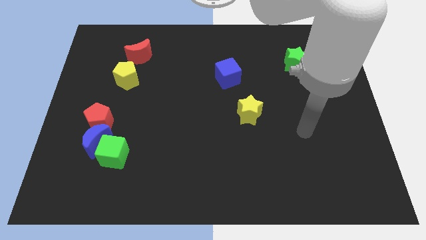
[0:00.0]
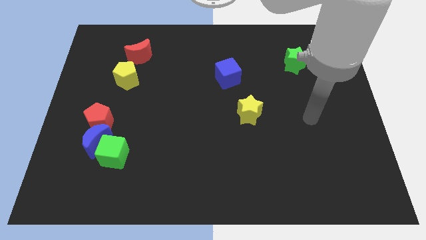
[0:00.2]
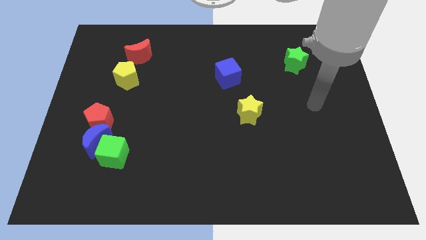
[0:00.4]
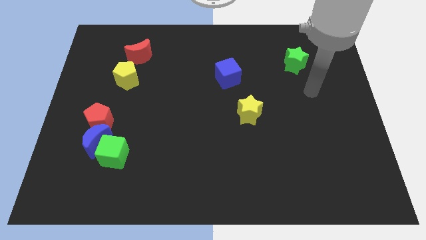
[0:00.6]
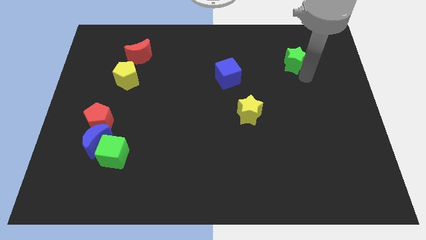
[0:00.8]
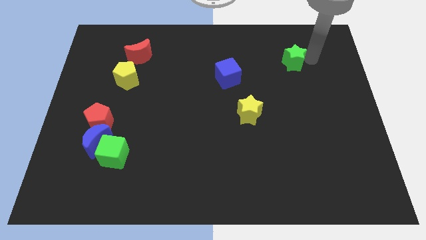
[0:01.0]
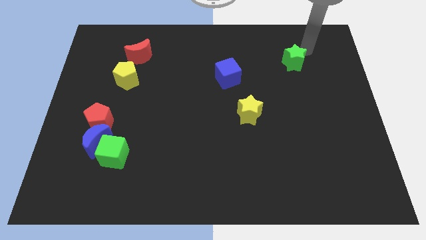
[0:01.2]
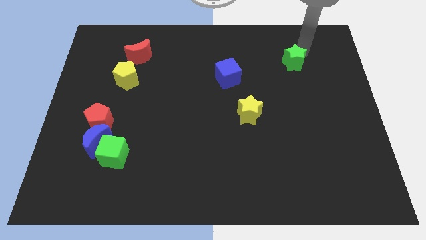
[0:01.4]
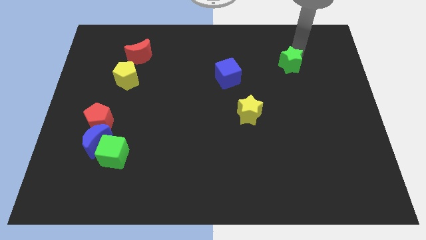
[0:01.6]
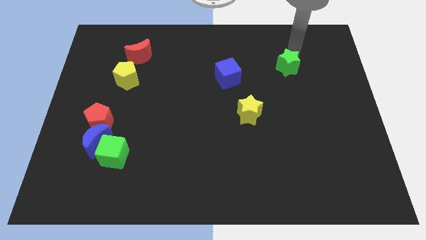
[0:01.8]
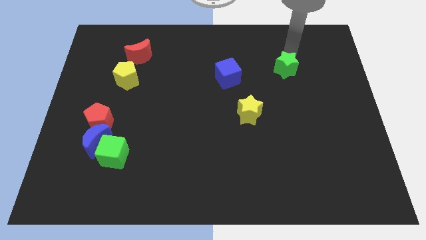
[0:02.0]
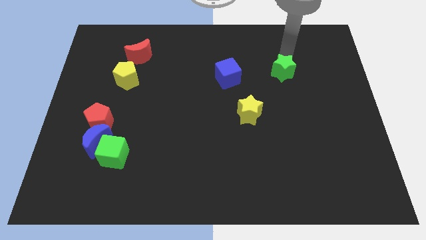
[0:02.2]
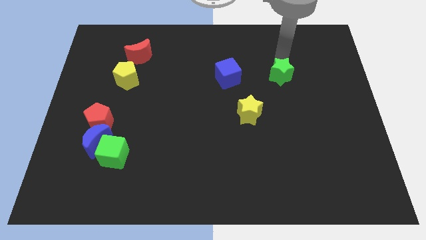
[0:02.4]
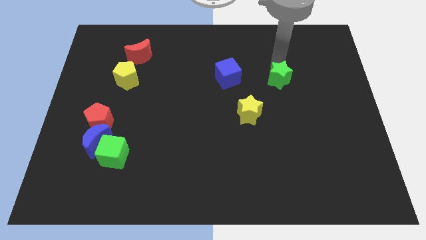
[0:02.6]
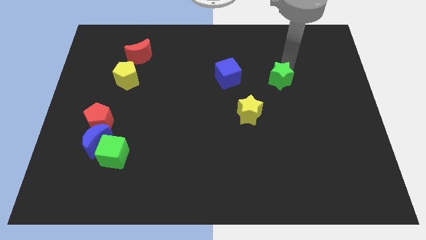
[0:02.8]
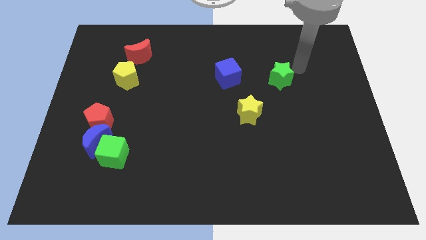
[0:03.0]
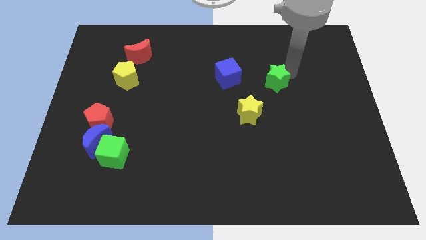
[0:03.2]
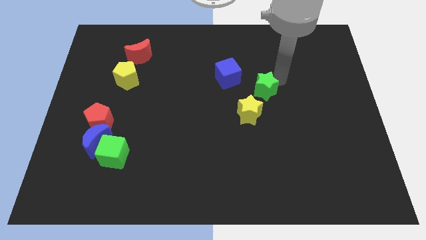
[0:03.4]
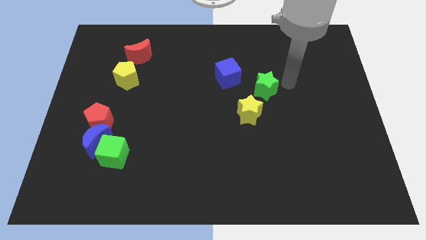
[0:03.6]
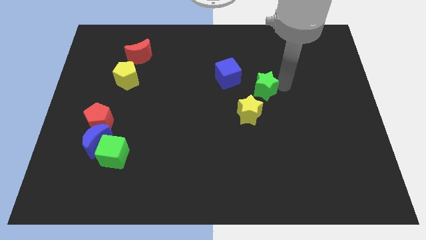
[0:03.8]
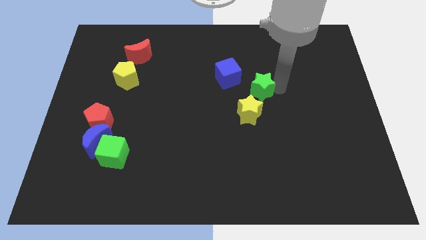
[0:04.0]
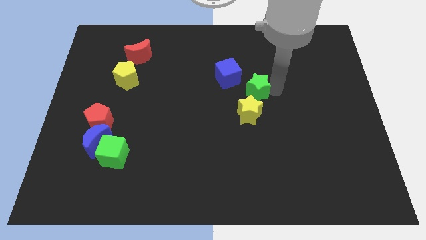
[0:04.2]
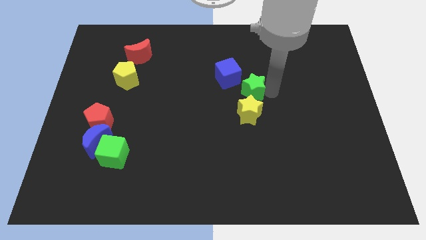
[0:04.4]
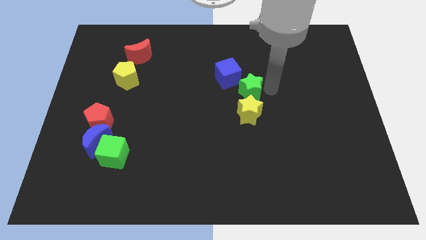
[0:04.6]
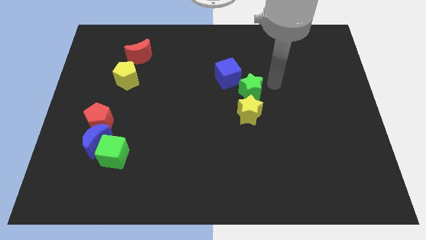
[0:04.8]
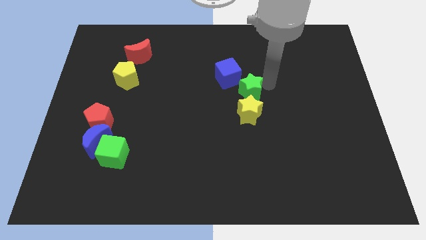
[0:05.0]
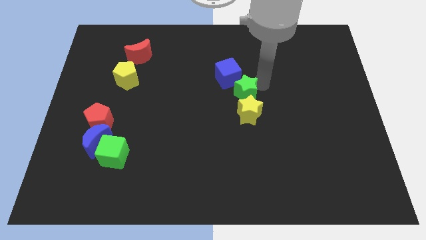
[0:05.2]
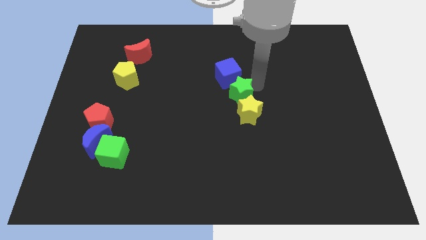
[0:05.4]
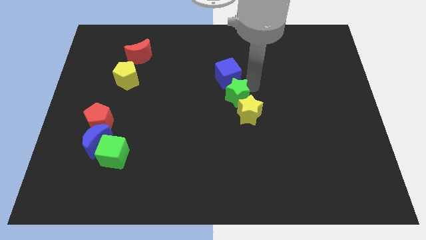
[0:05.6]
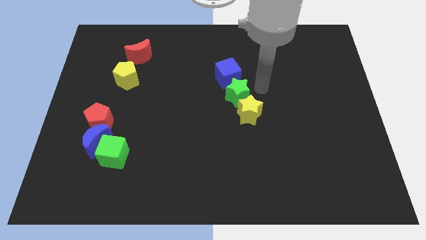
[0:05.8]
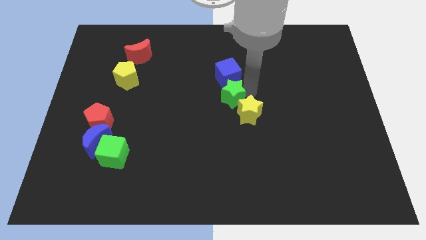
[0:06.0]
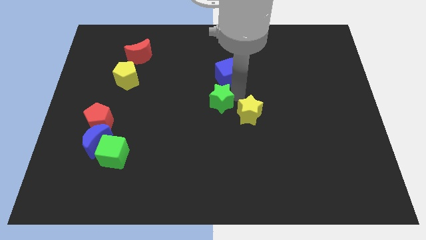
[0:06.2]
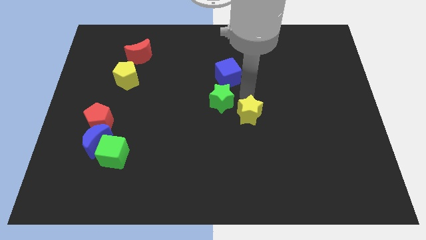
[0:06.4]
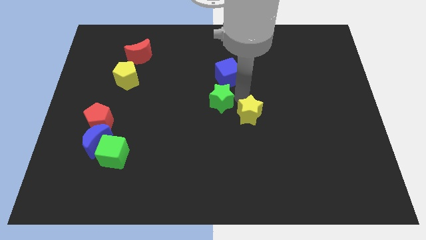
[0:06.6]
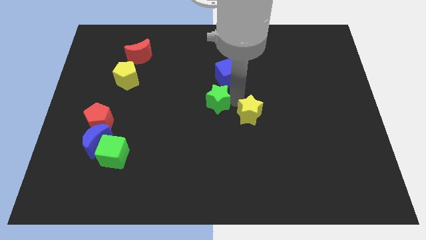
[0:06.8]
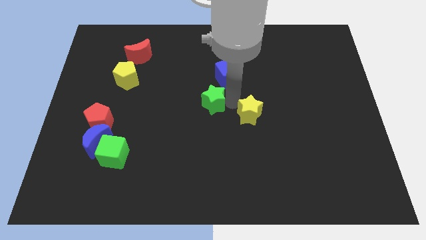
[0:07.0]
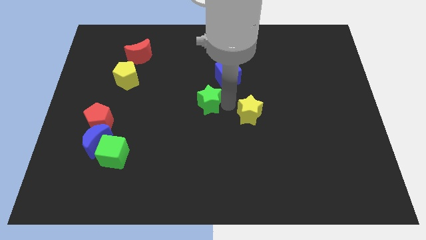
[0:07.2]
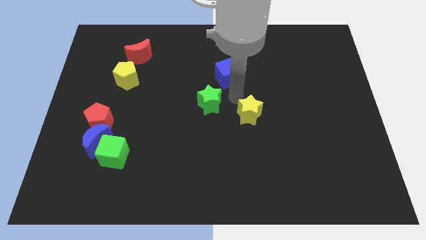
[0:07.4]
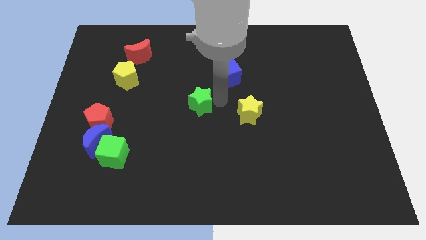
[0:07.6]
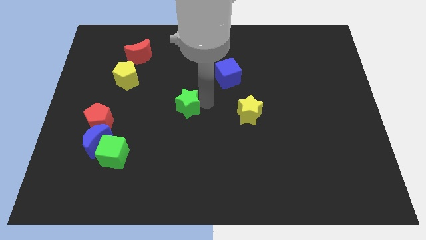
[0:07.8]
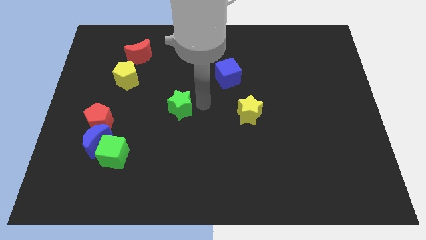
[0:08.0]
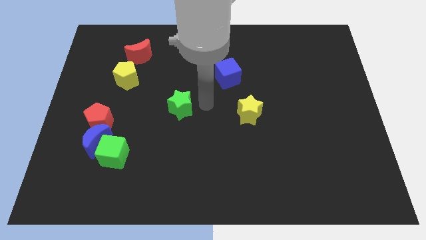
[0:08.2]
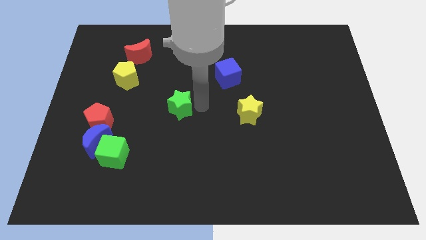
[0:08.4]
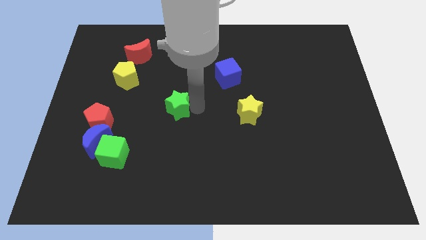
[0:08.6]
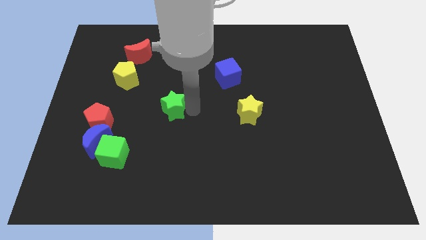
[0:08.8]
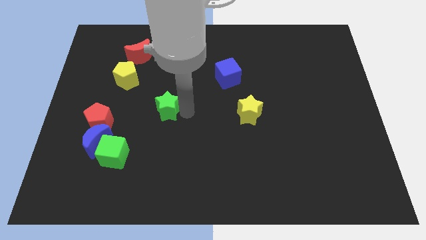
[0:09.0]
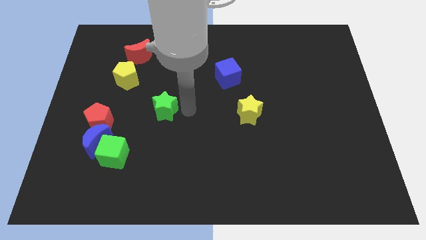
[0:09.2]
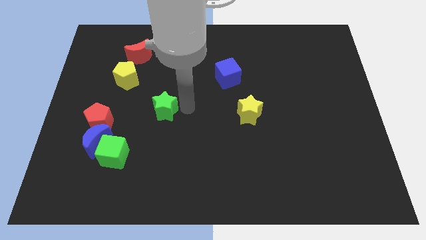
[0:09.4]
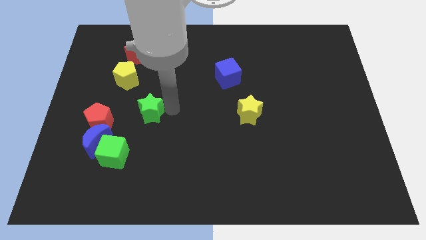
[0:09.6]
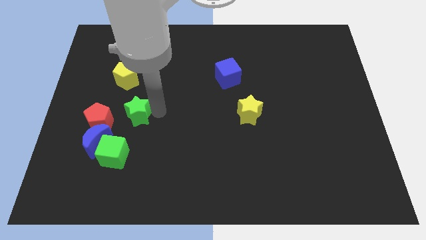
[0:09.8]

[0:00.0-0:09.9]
slide the green star to the bottom side of the yellow pentagon

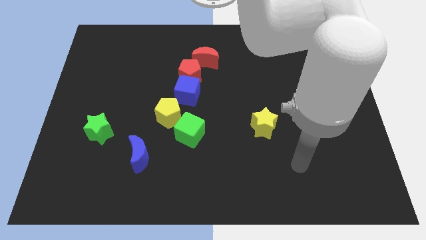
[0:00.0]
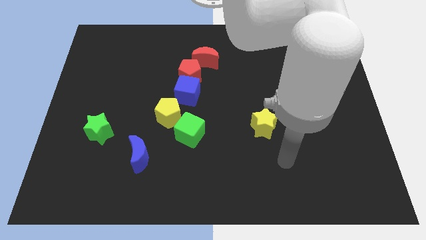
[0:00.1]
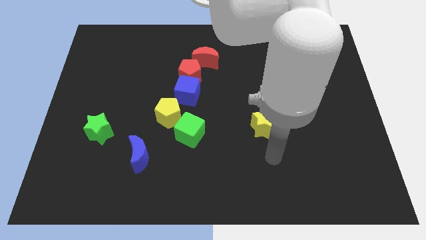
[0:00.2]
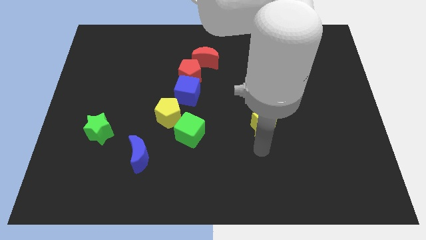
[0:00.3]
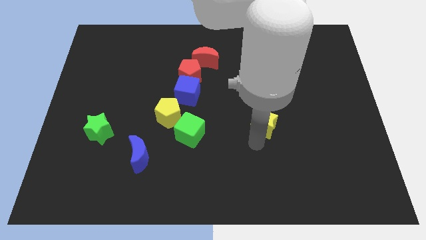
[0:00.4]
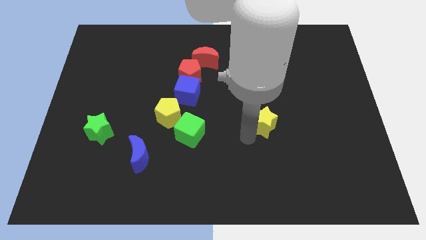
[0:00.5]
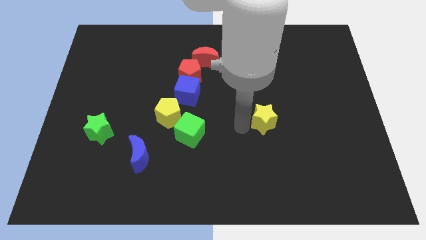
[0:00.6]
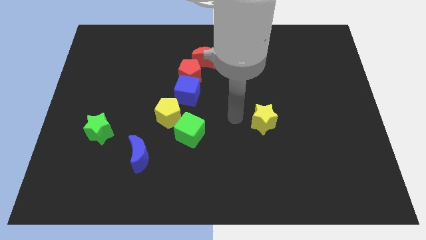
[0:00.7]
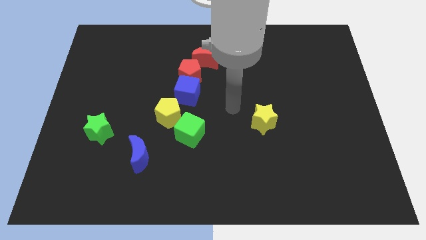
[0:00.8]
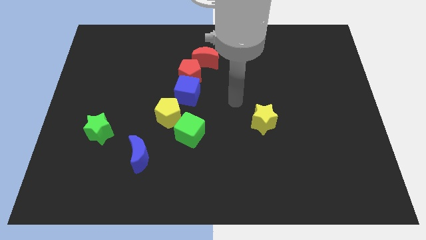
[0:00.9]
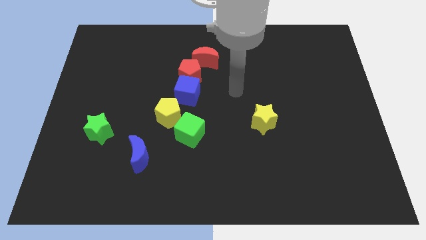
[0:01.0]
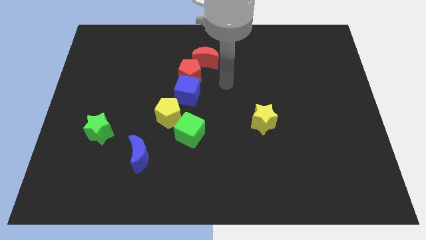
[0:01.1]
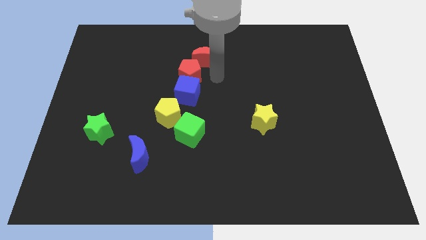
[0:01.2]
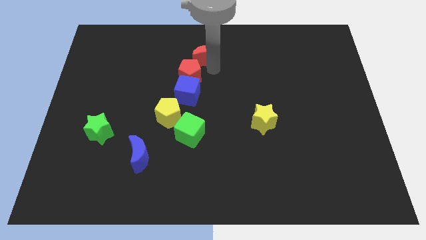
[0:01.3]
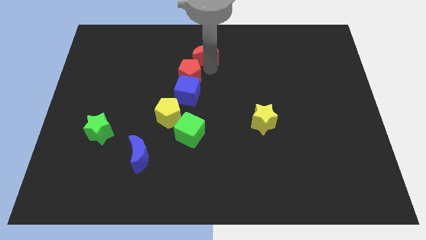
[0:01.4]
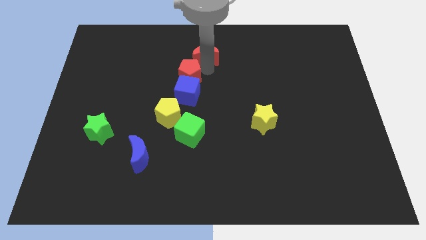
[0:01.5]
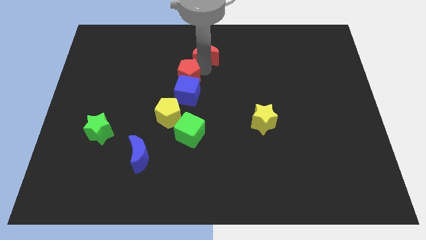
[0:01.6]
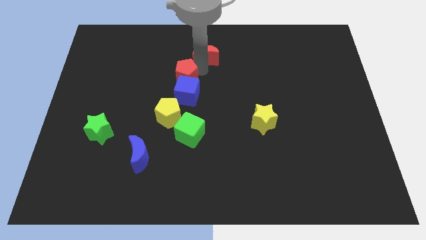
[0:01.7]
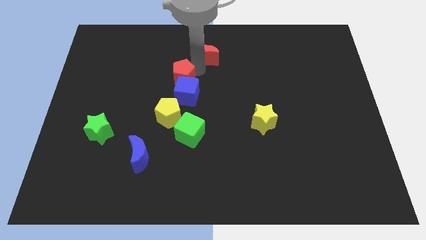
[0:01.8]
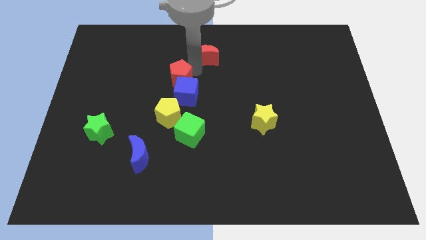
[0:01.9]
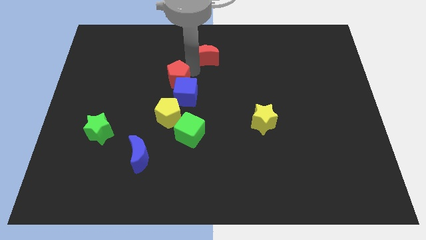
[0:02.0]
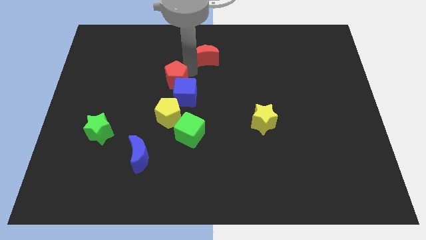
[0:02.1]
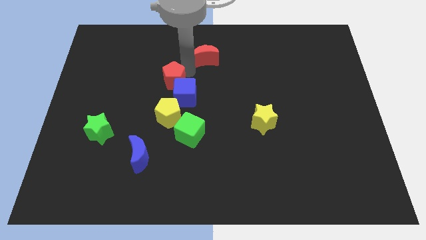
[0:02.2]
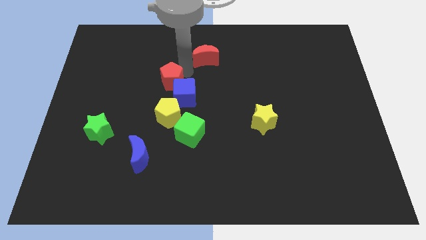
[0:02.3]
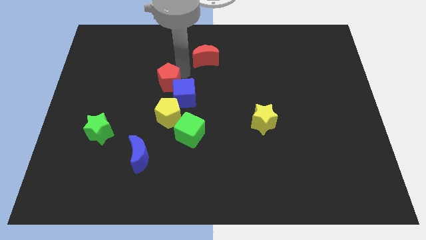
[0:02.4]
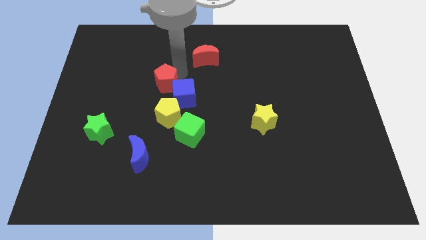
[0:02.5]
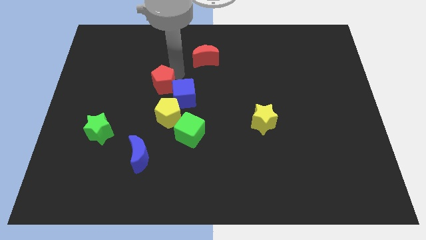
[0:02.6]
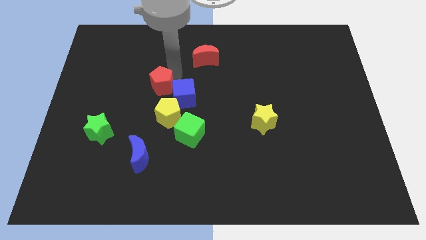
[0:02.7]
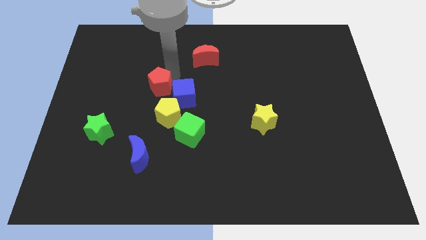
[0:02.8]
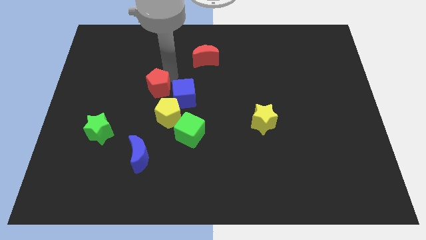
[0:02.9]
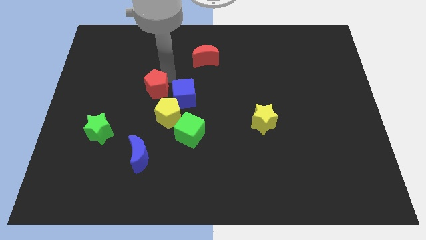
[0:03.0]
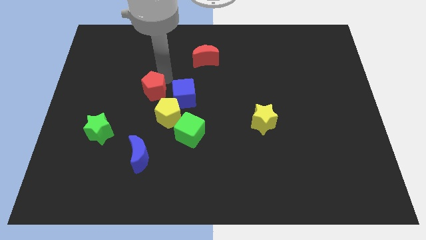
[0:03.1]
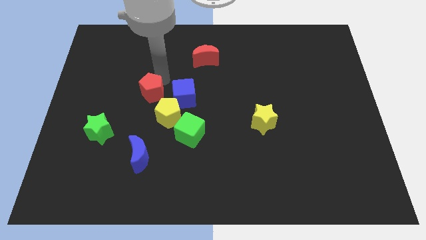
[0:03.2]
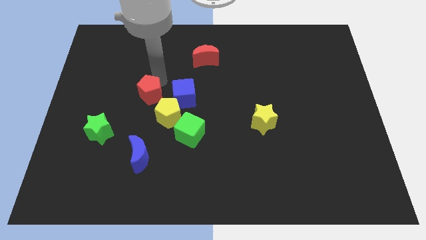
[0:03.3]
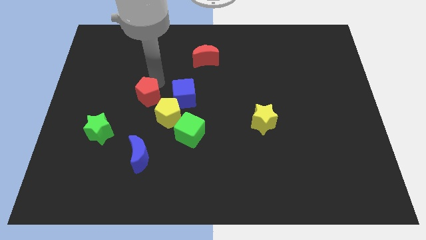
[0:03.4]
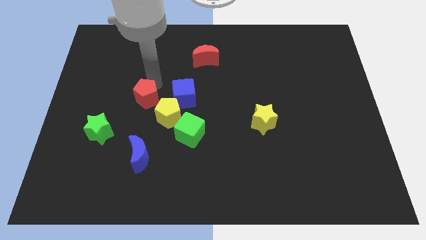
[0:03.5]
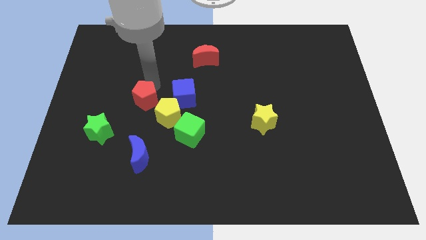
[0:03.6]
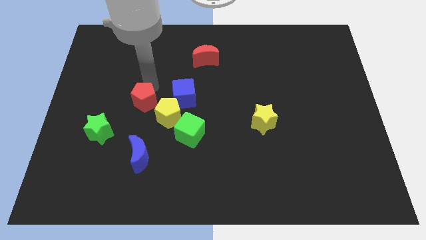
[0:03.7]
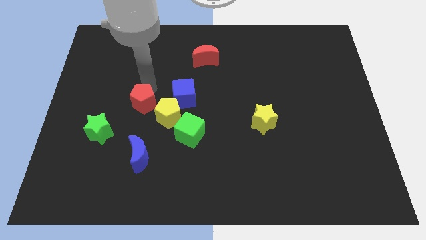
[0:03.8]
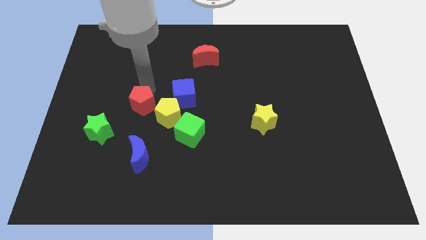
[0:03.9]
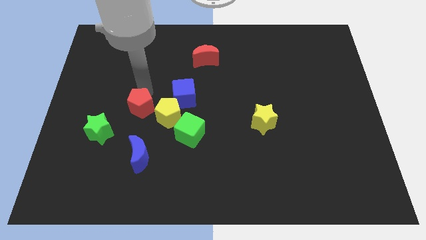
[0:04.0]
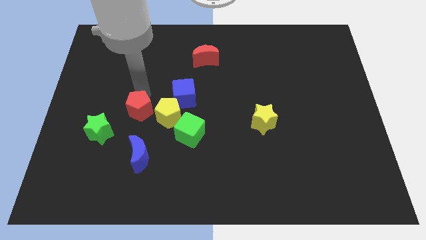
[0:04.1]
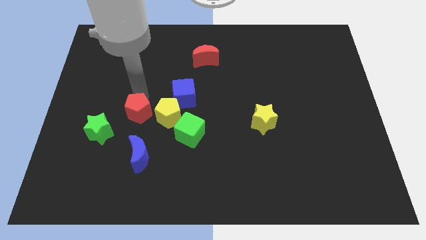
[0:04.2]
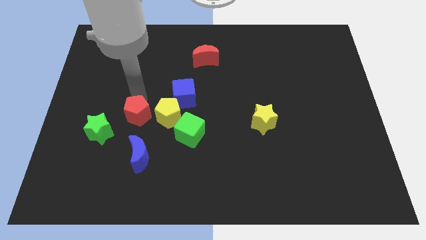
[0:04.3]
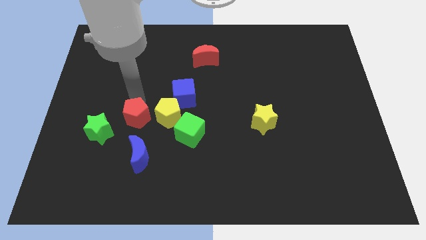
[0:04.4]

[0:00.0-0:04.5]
put the red pentagon to the bottom left of the yellow pentagon
